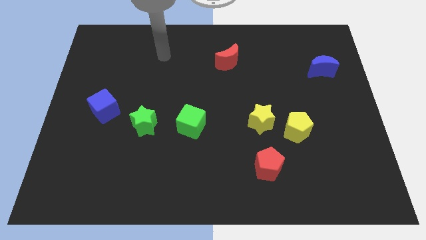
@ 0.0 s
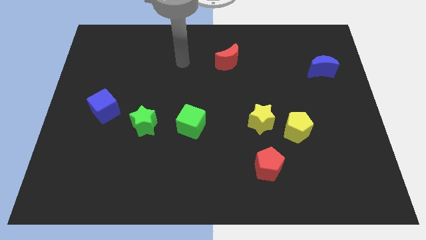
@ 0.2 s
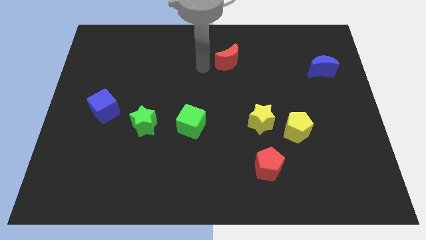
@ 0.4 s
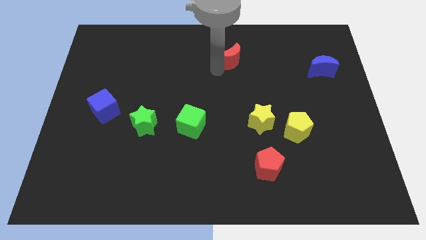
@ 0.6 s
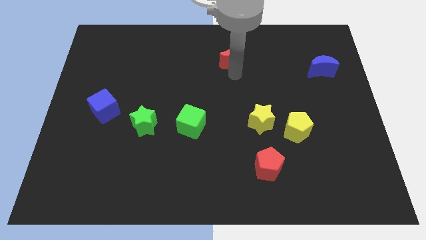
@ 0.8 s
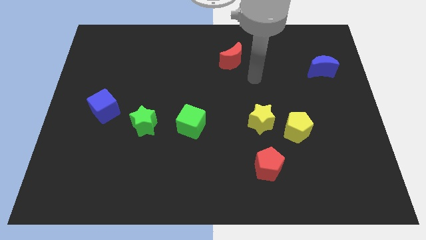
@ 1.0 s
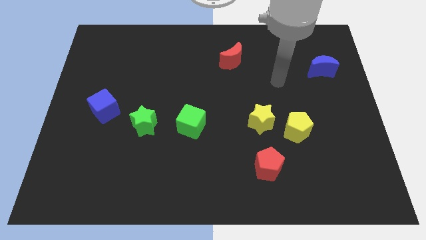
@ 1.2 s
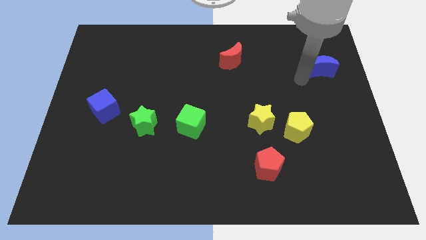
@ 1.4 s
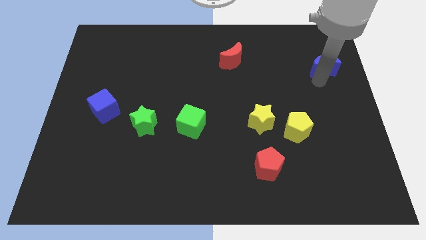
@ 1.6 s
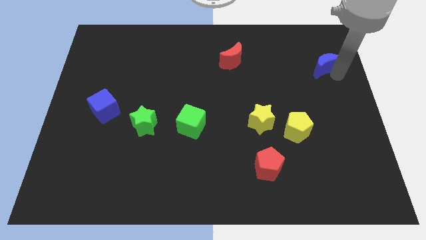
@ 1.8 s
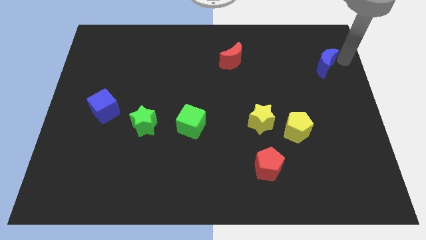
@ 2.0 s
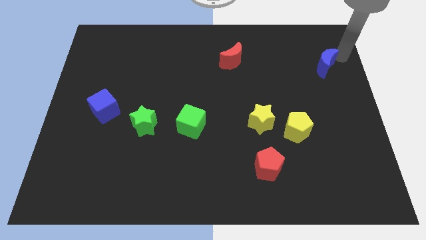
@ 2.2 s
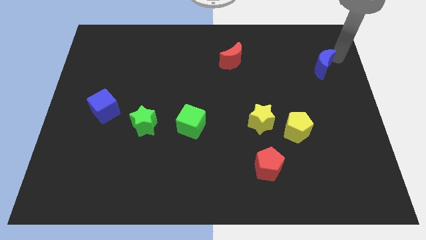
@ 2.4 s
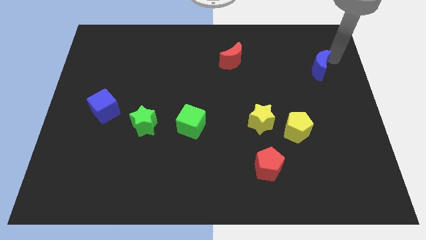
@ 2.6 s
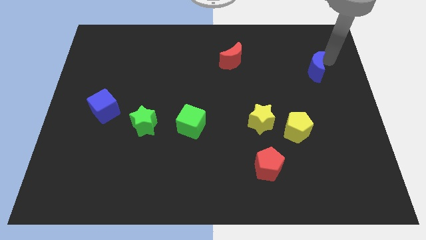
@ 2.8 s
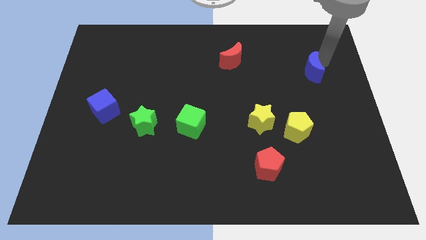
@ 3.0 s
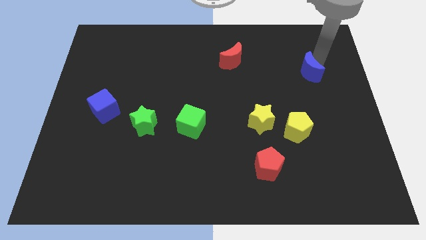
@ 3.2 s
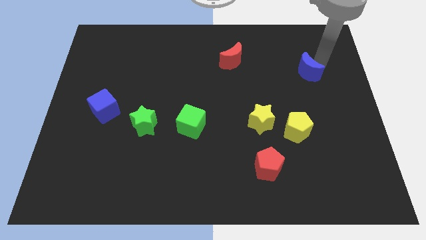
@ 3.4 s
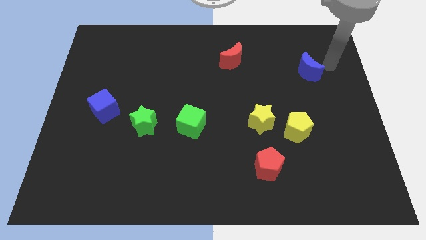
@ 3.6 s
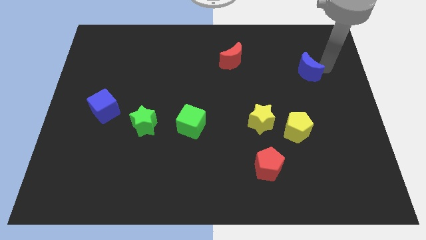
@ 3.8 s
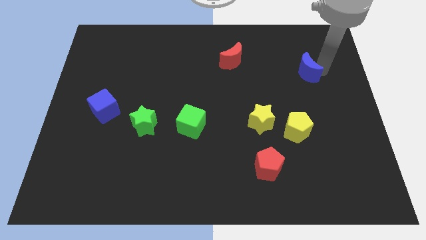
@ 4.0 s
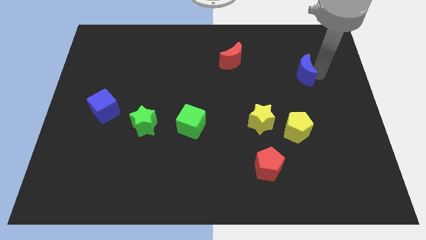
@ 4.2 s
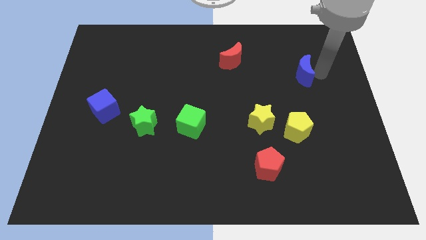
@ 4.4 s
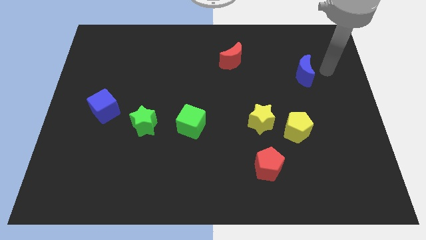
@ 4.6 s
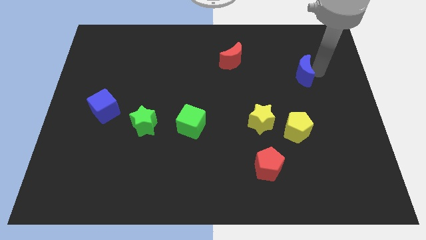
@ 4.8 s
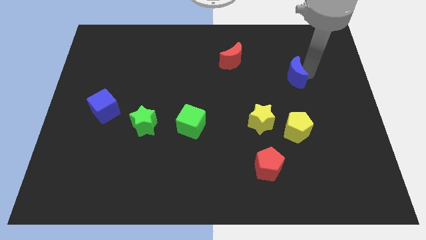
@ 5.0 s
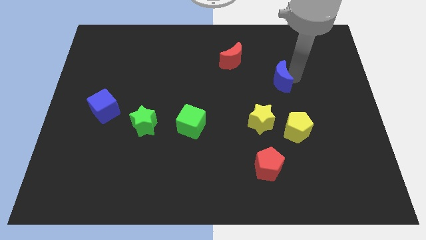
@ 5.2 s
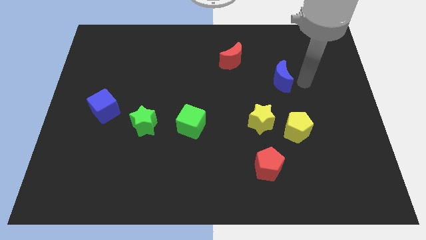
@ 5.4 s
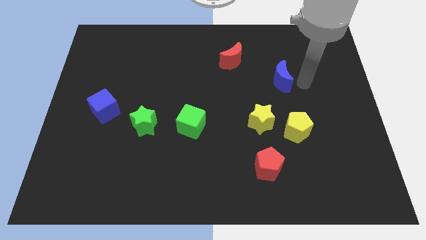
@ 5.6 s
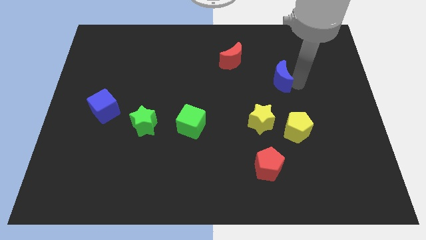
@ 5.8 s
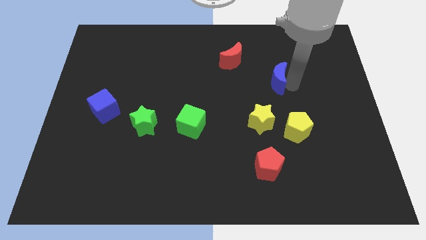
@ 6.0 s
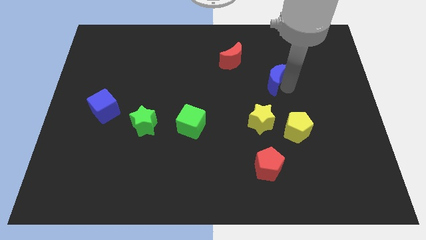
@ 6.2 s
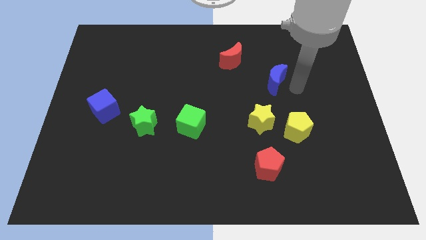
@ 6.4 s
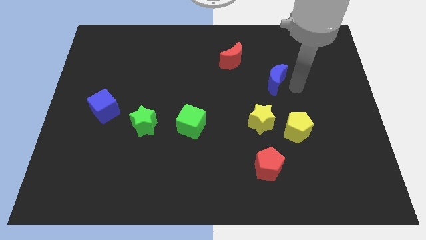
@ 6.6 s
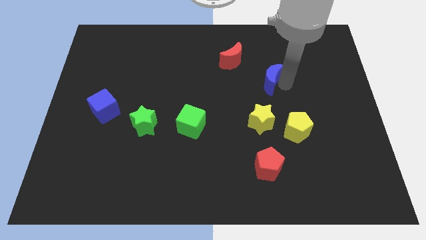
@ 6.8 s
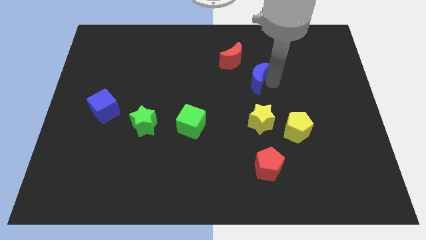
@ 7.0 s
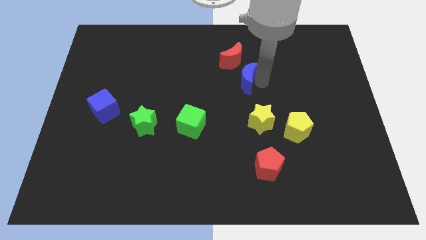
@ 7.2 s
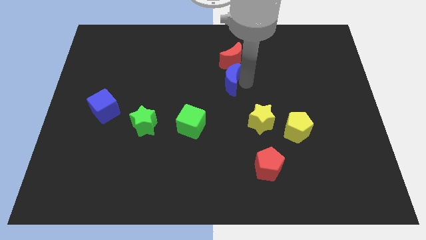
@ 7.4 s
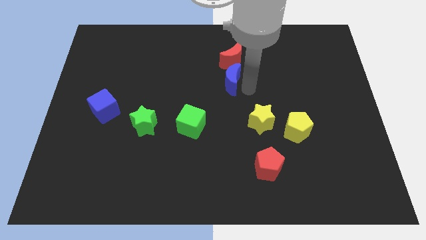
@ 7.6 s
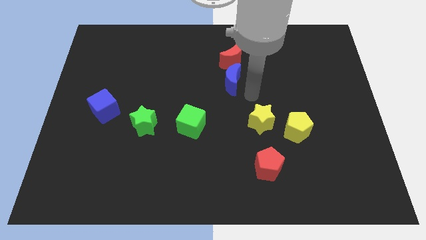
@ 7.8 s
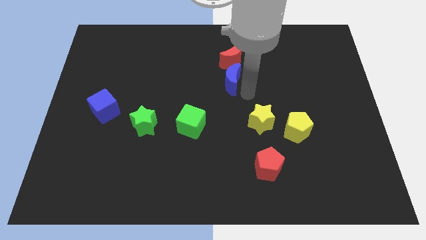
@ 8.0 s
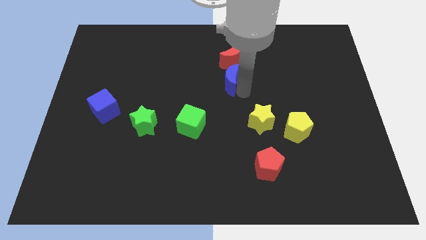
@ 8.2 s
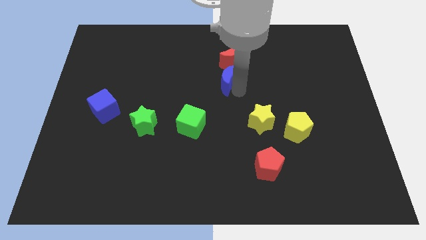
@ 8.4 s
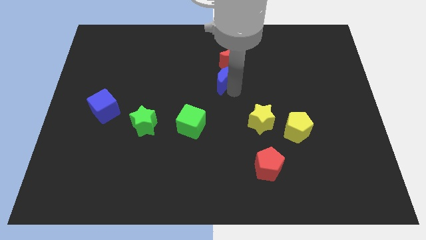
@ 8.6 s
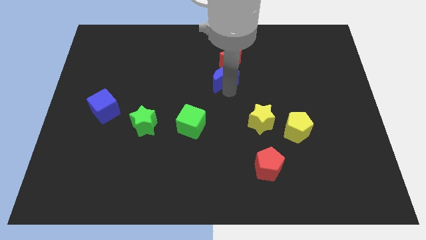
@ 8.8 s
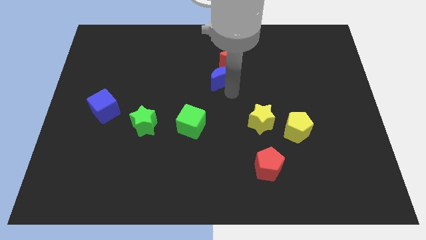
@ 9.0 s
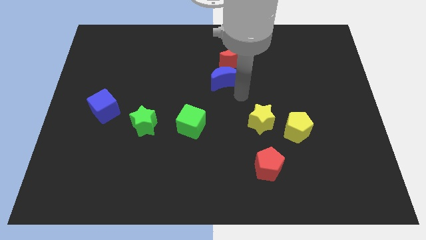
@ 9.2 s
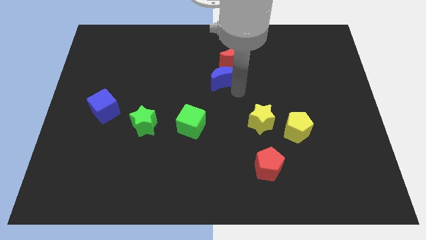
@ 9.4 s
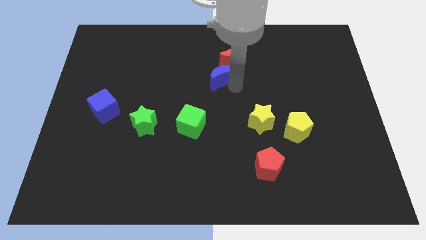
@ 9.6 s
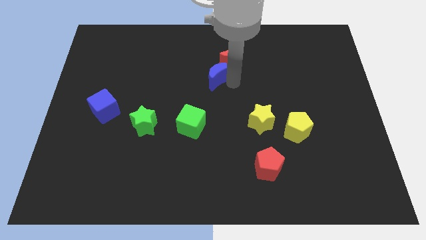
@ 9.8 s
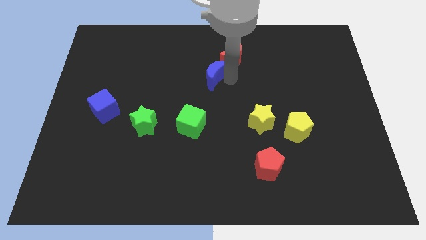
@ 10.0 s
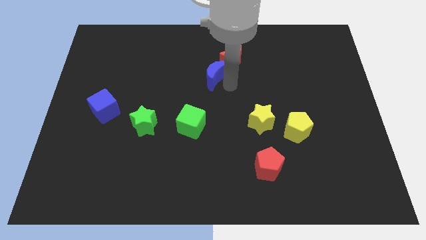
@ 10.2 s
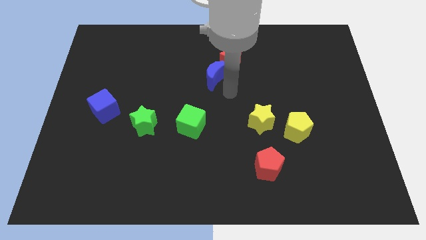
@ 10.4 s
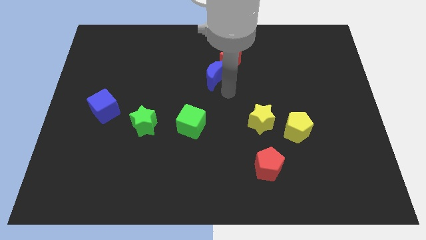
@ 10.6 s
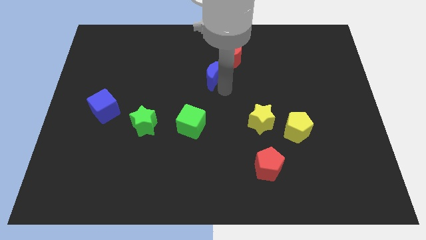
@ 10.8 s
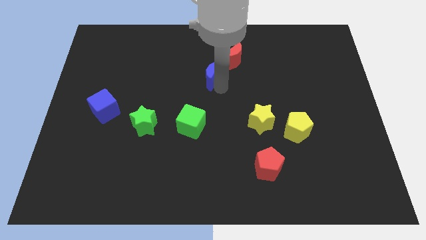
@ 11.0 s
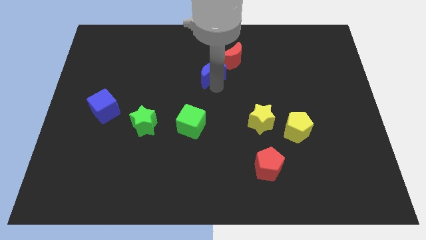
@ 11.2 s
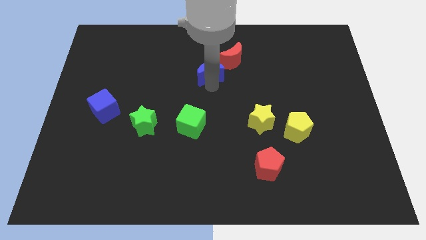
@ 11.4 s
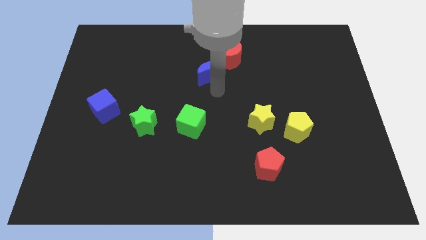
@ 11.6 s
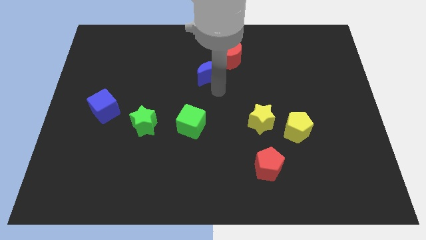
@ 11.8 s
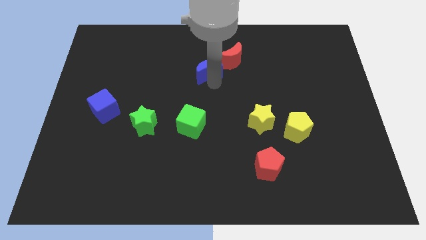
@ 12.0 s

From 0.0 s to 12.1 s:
put the blue moon to the left side of the red moon
